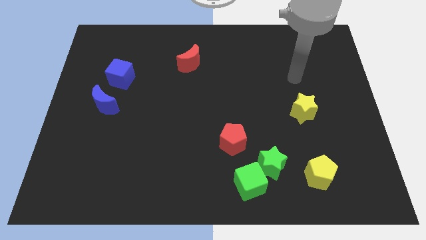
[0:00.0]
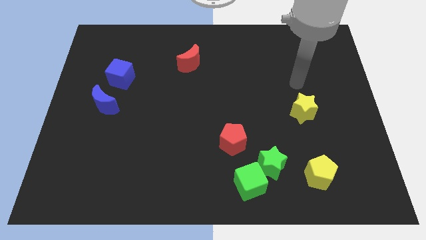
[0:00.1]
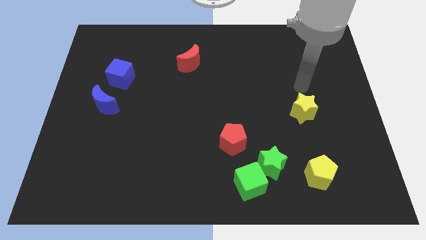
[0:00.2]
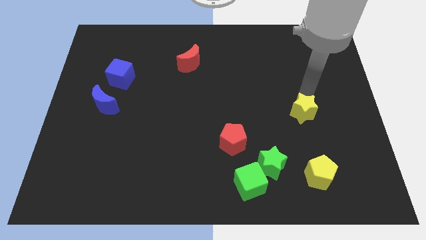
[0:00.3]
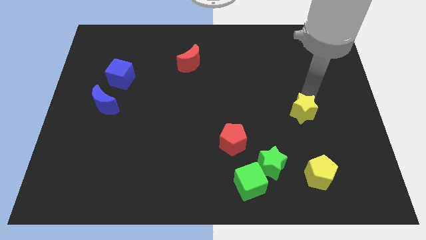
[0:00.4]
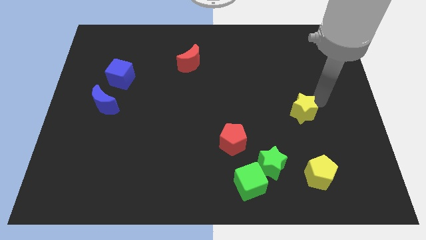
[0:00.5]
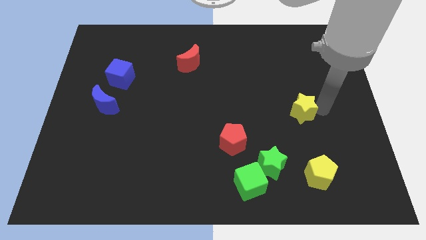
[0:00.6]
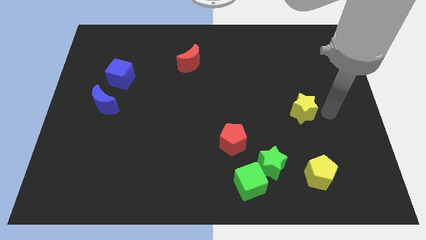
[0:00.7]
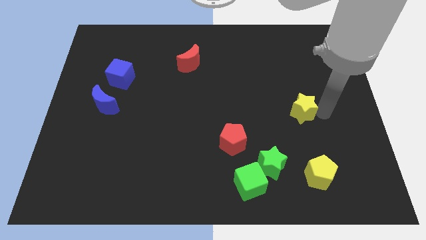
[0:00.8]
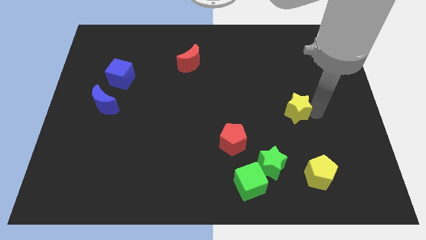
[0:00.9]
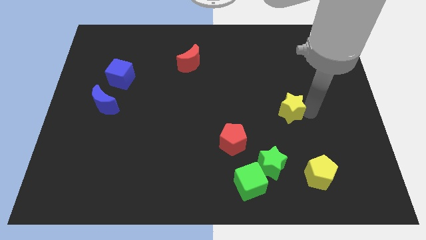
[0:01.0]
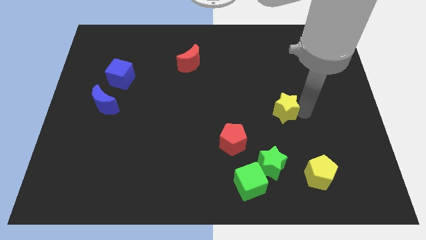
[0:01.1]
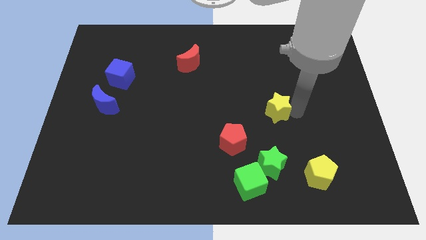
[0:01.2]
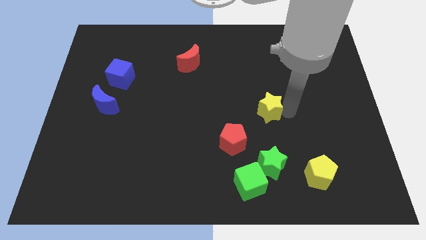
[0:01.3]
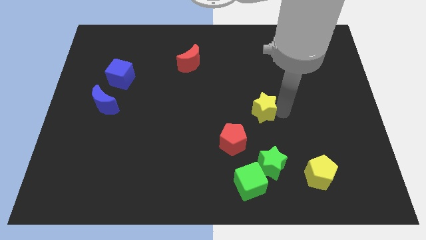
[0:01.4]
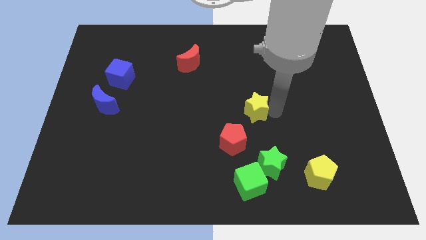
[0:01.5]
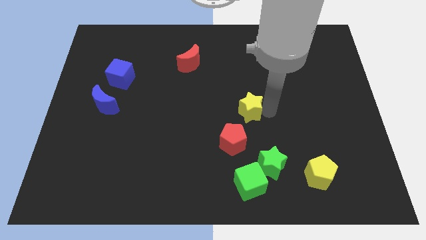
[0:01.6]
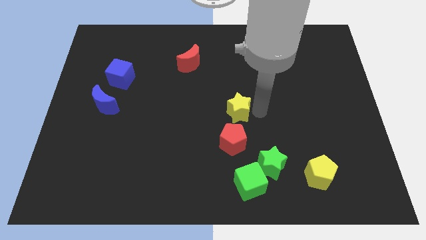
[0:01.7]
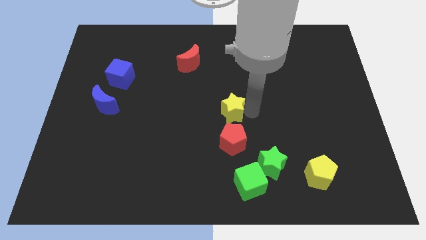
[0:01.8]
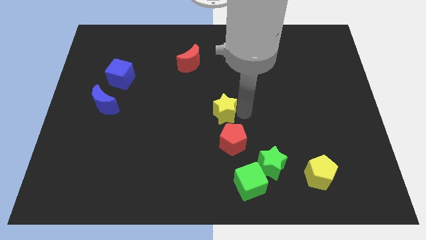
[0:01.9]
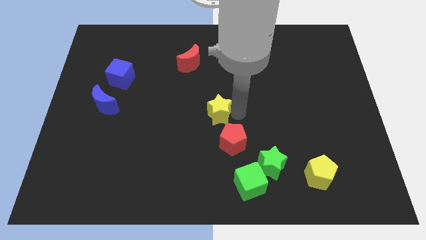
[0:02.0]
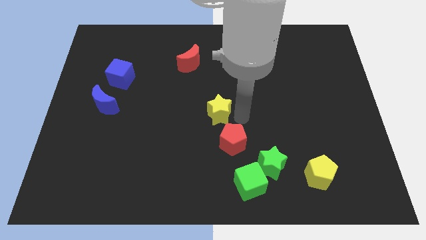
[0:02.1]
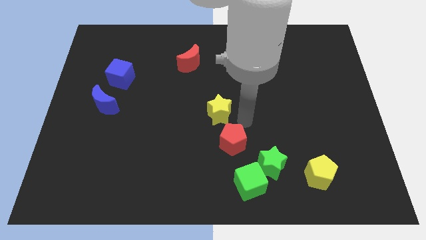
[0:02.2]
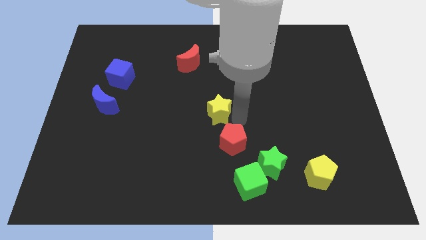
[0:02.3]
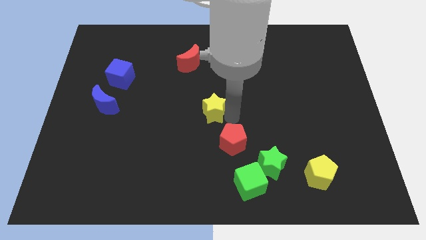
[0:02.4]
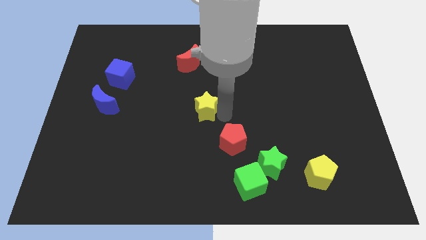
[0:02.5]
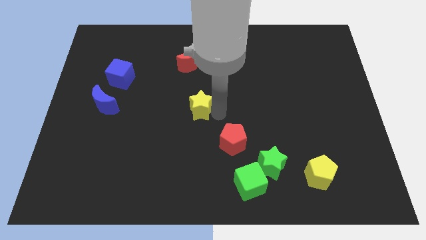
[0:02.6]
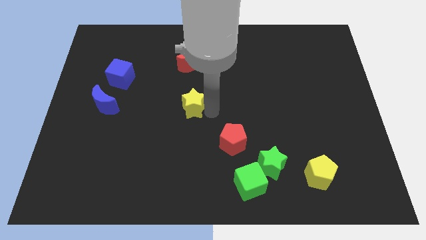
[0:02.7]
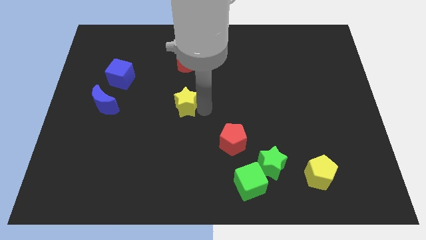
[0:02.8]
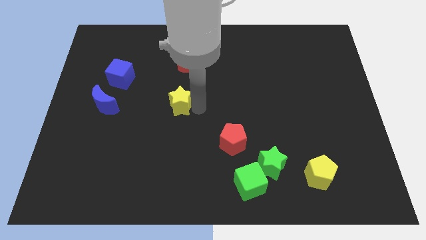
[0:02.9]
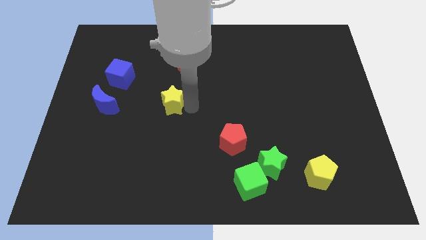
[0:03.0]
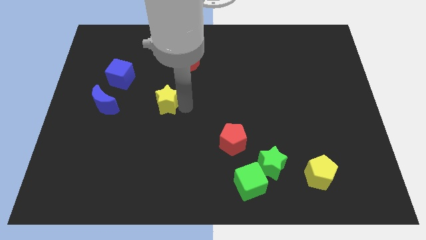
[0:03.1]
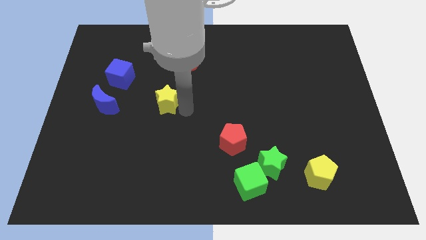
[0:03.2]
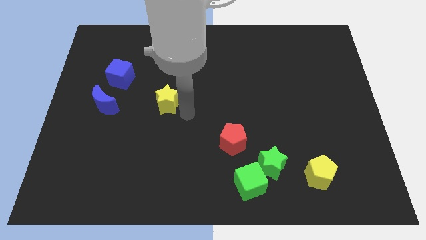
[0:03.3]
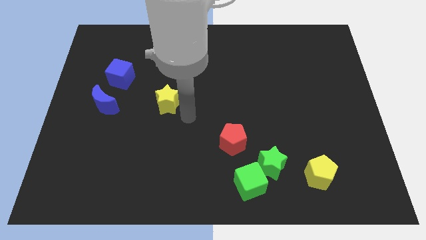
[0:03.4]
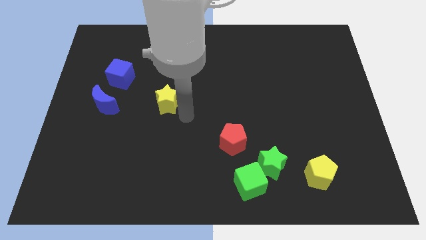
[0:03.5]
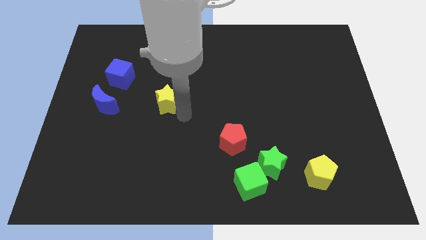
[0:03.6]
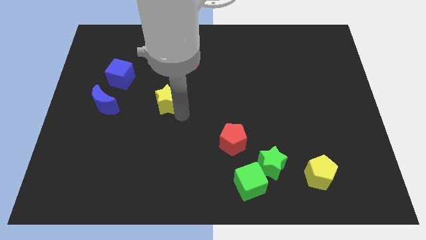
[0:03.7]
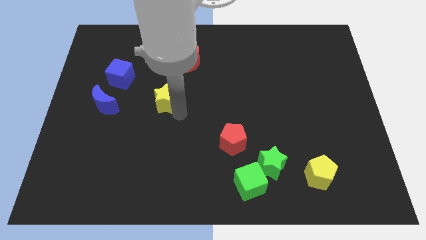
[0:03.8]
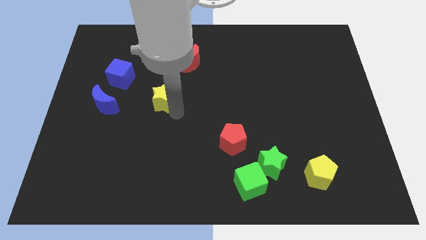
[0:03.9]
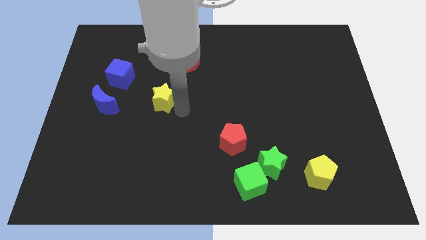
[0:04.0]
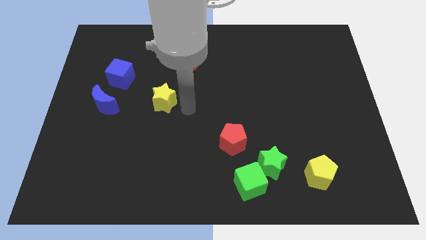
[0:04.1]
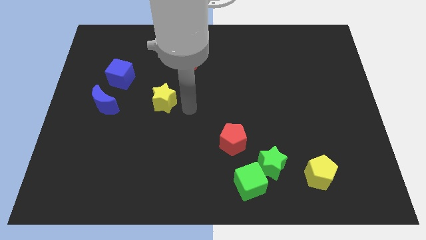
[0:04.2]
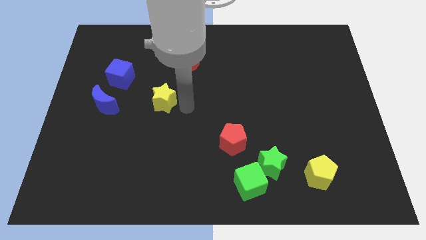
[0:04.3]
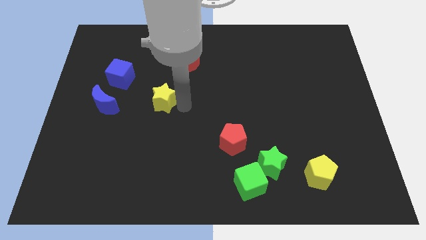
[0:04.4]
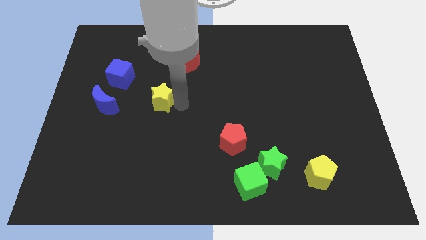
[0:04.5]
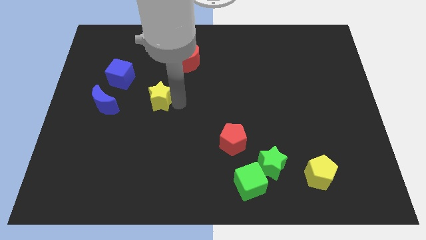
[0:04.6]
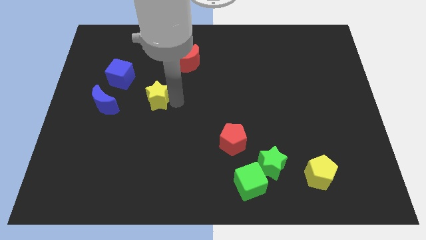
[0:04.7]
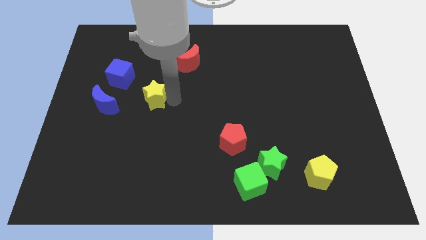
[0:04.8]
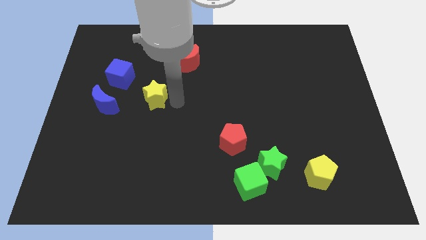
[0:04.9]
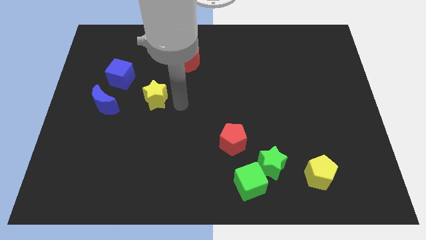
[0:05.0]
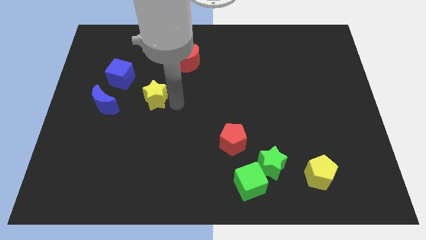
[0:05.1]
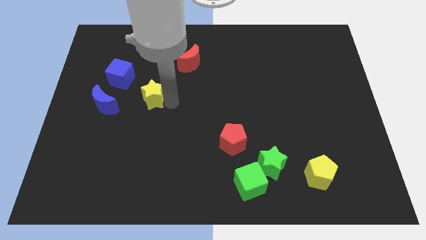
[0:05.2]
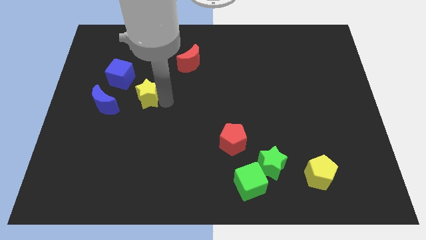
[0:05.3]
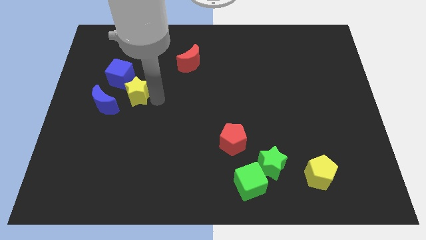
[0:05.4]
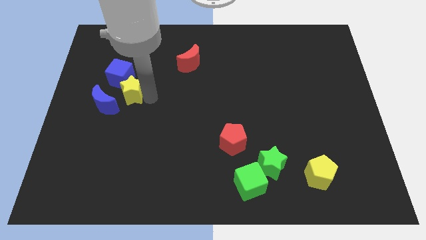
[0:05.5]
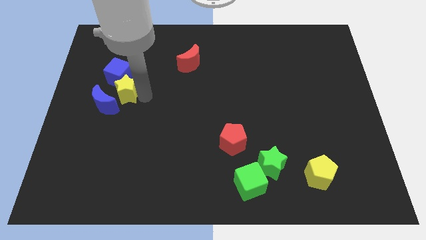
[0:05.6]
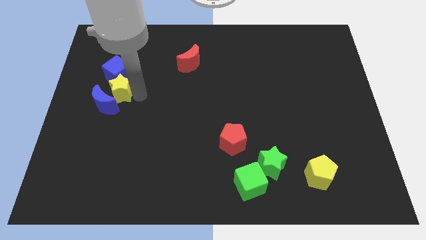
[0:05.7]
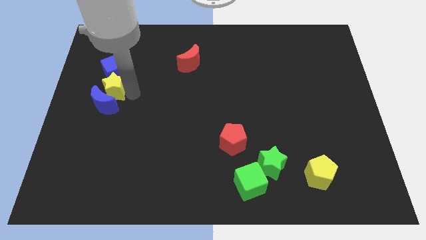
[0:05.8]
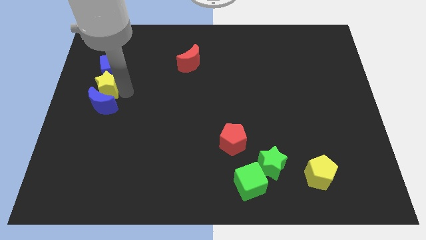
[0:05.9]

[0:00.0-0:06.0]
slide the yellow star to the center left

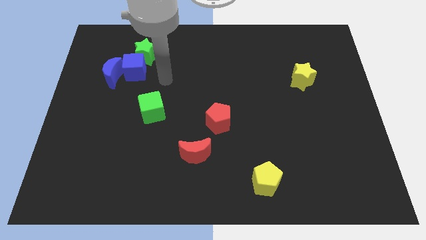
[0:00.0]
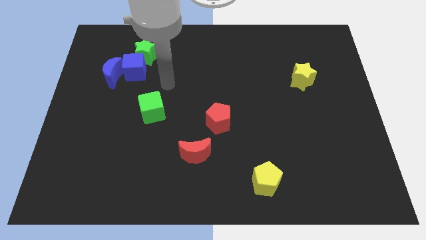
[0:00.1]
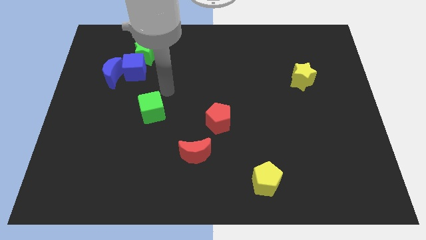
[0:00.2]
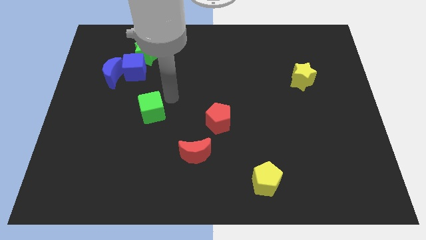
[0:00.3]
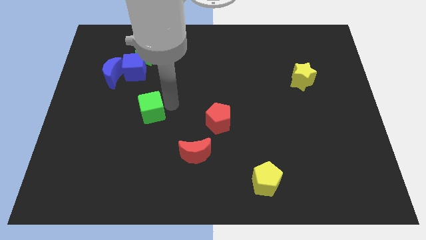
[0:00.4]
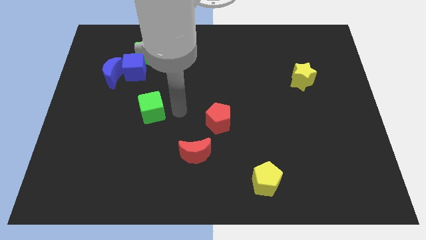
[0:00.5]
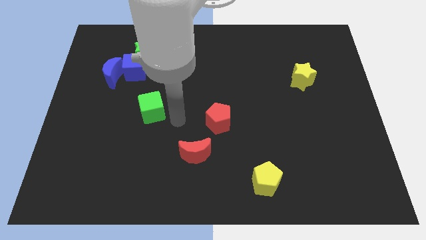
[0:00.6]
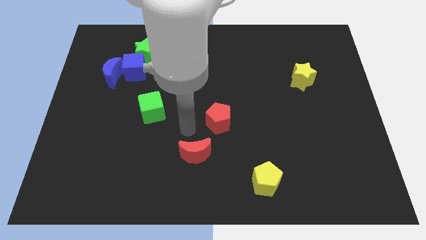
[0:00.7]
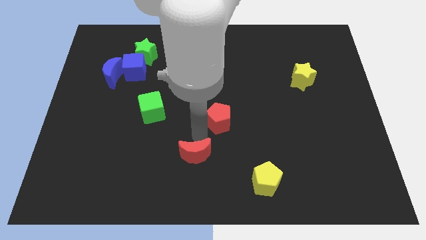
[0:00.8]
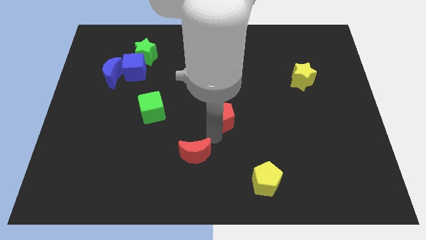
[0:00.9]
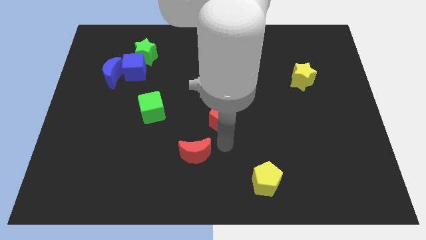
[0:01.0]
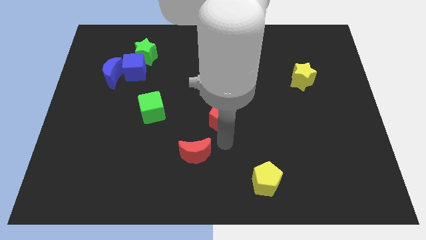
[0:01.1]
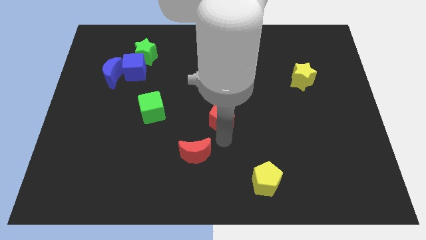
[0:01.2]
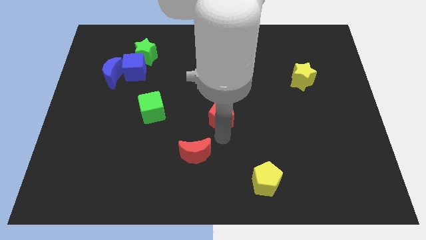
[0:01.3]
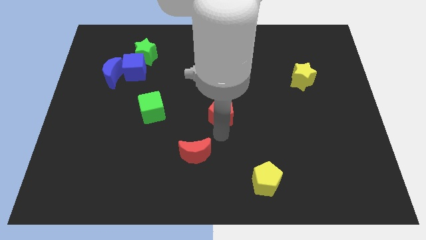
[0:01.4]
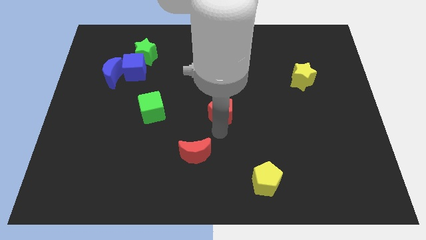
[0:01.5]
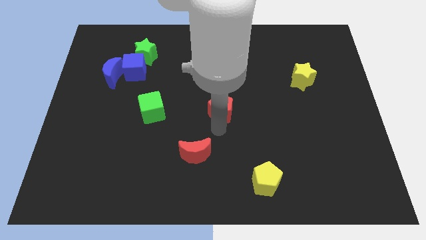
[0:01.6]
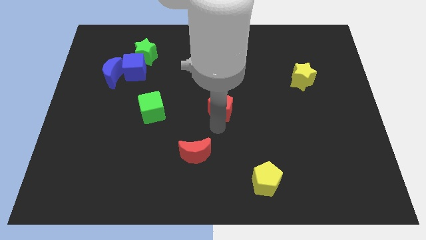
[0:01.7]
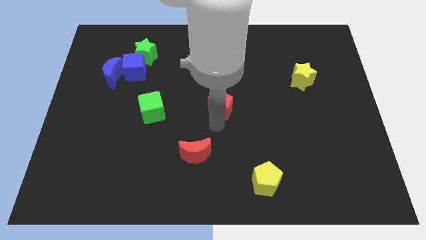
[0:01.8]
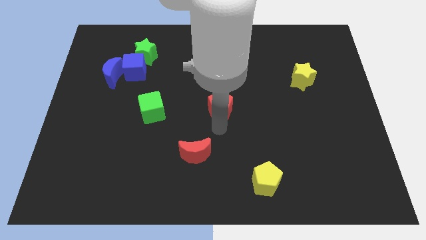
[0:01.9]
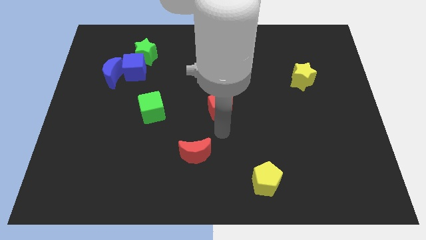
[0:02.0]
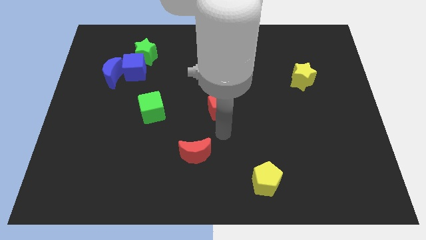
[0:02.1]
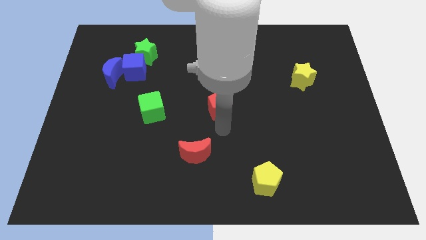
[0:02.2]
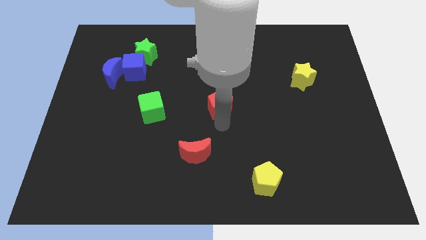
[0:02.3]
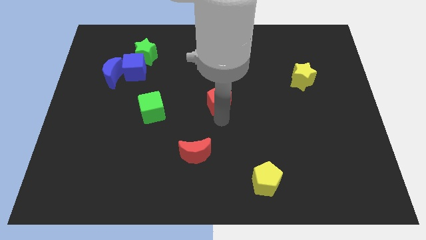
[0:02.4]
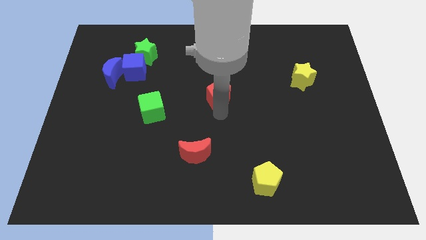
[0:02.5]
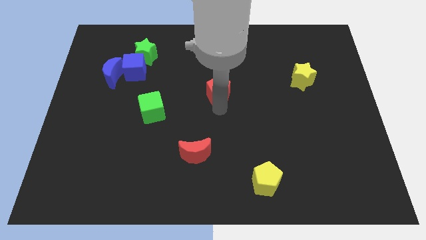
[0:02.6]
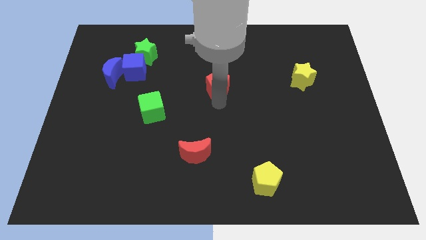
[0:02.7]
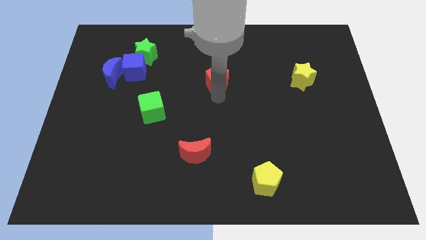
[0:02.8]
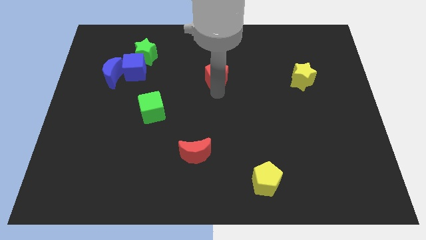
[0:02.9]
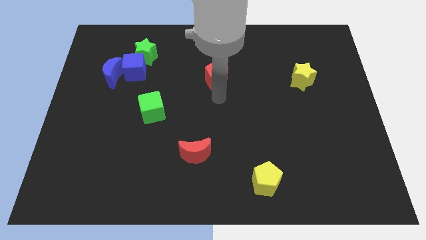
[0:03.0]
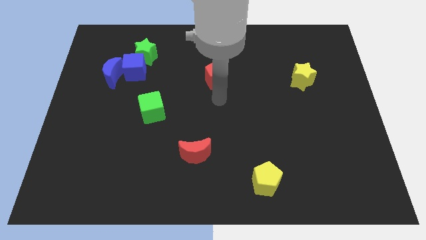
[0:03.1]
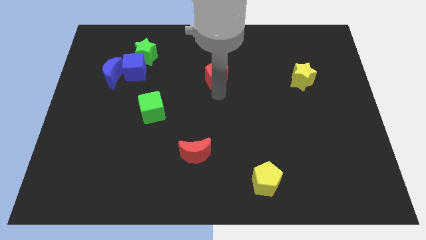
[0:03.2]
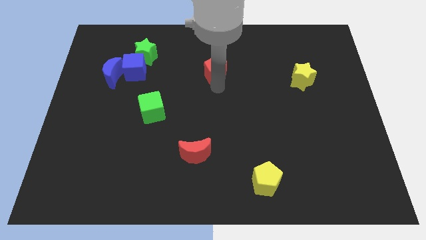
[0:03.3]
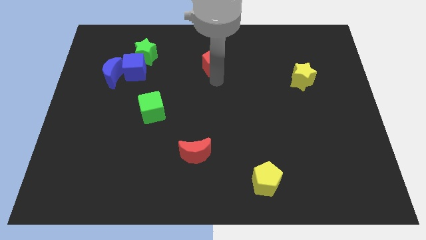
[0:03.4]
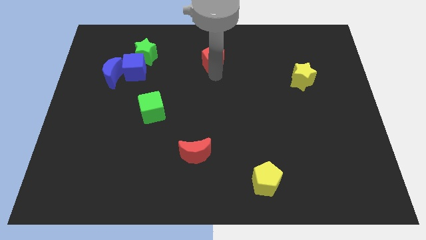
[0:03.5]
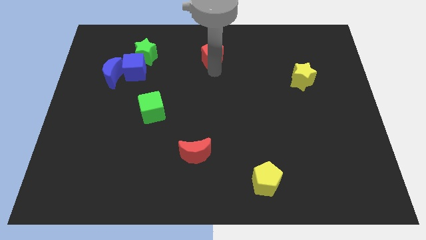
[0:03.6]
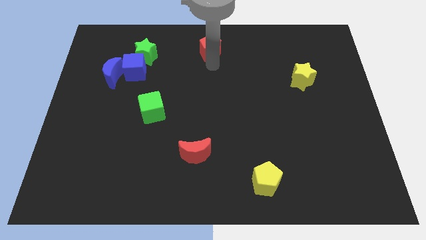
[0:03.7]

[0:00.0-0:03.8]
slide the red pentagon to the top side
